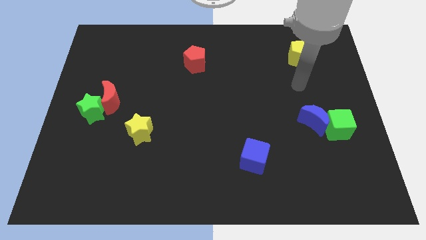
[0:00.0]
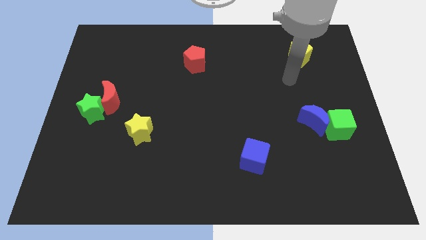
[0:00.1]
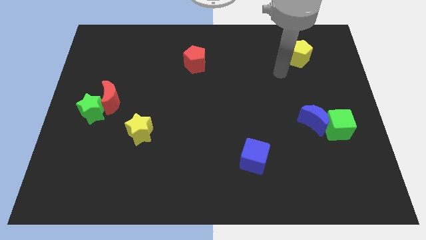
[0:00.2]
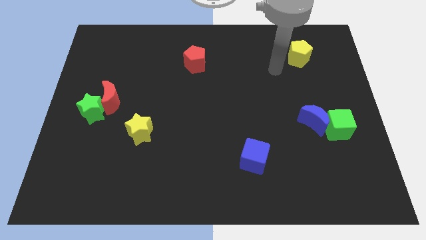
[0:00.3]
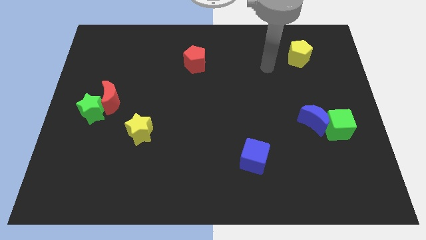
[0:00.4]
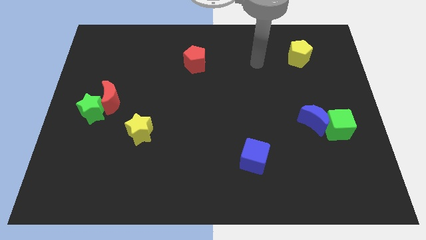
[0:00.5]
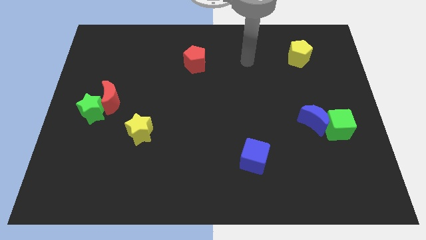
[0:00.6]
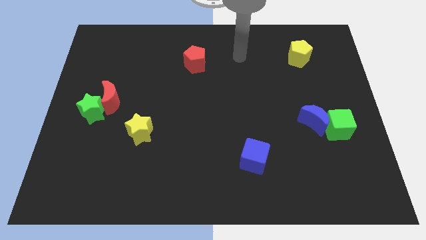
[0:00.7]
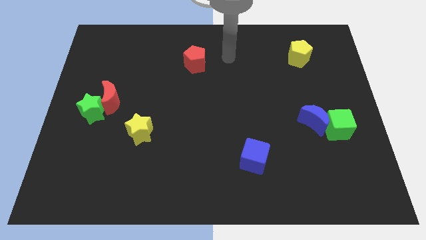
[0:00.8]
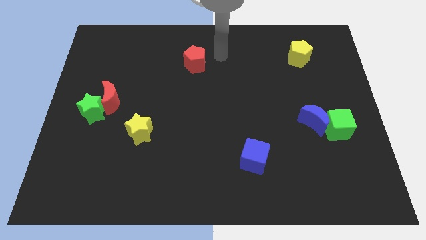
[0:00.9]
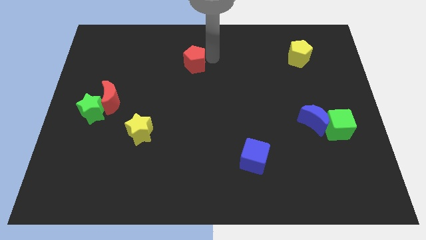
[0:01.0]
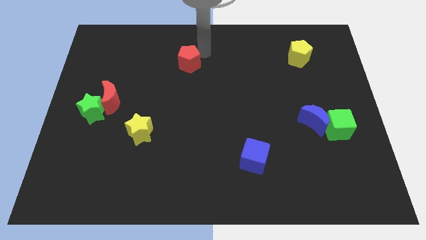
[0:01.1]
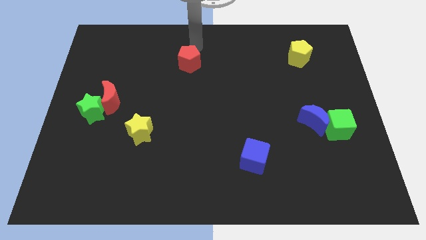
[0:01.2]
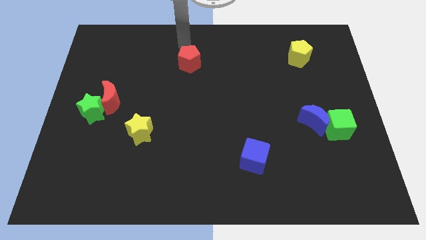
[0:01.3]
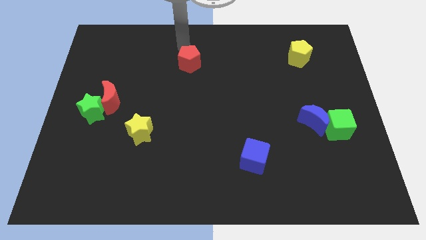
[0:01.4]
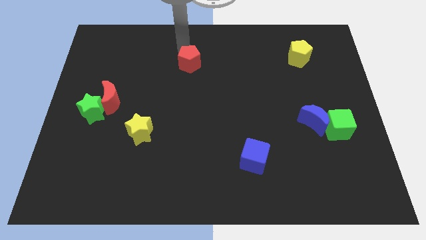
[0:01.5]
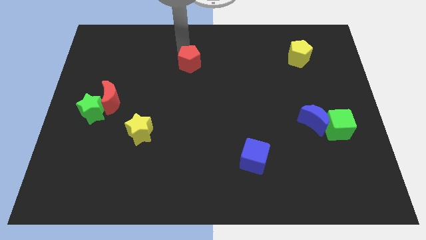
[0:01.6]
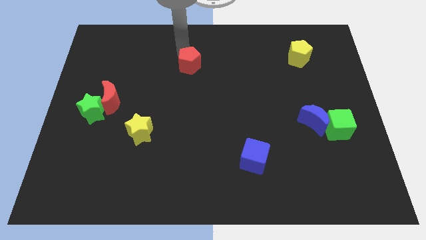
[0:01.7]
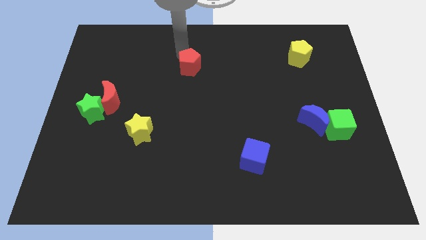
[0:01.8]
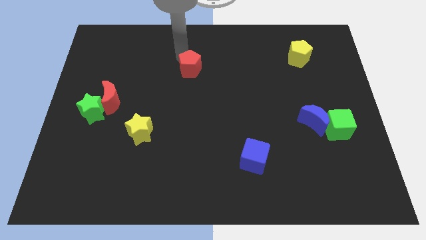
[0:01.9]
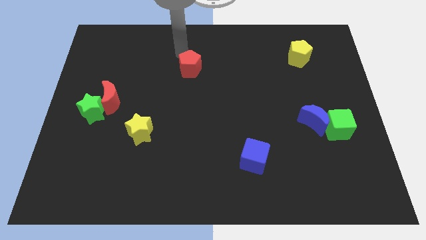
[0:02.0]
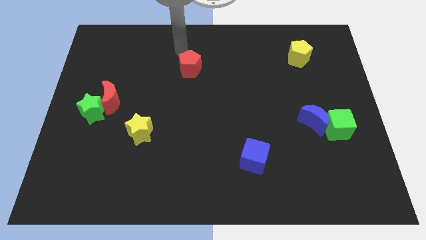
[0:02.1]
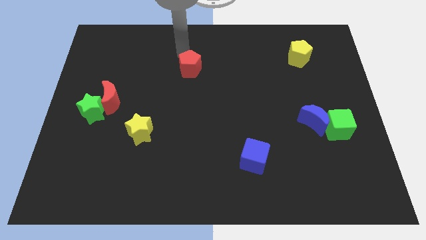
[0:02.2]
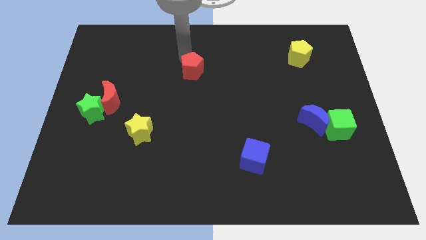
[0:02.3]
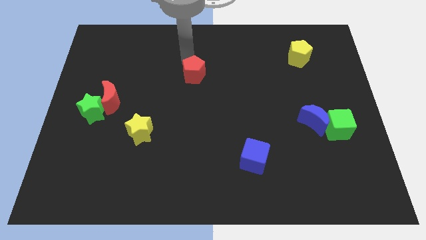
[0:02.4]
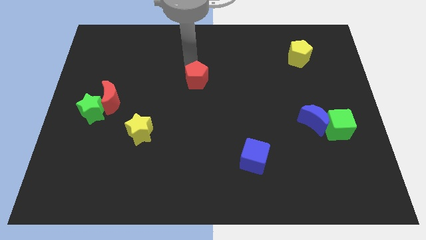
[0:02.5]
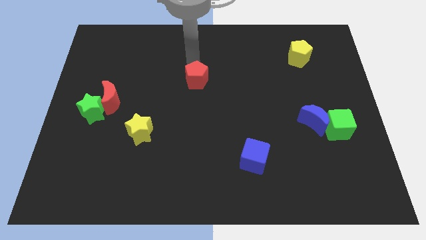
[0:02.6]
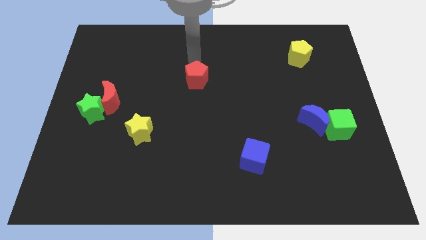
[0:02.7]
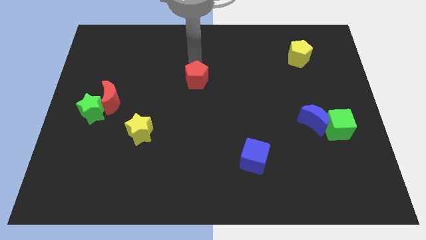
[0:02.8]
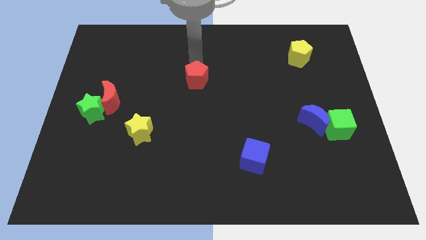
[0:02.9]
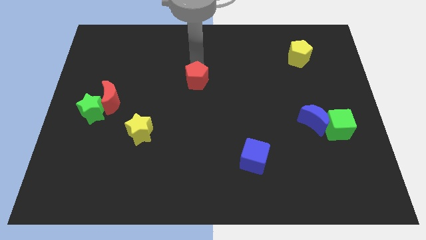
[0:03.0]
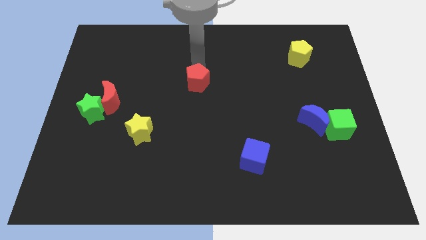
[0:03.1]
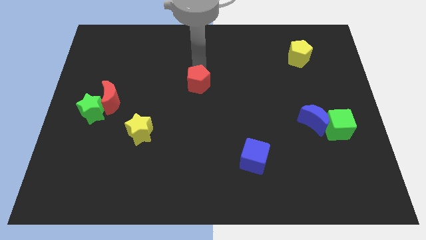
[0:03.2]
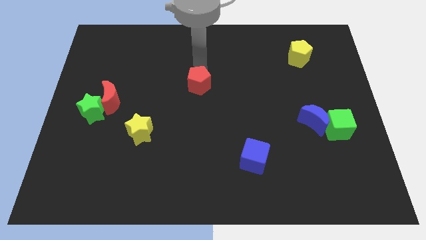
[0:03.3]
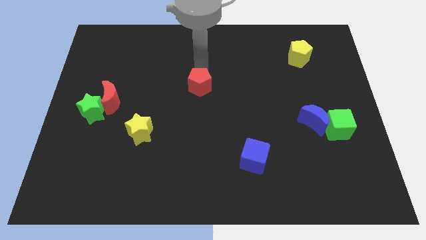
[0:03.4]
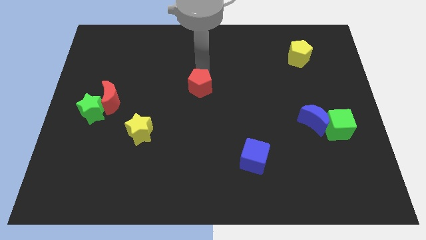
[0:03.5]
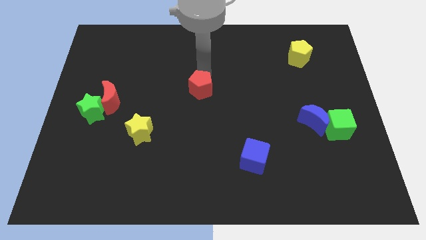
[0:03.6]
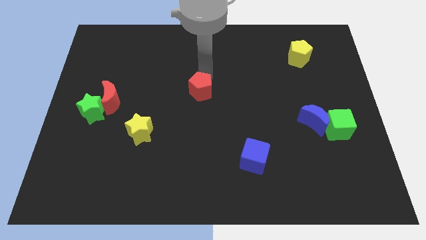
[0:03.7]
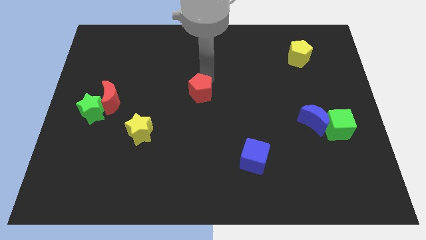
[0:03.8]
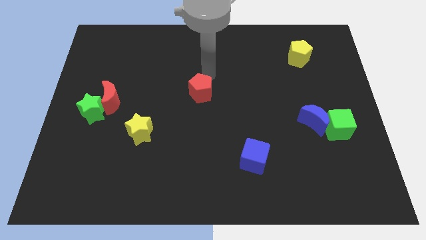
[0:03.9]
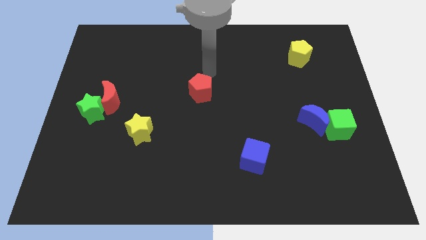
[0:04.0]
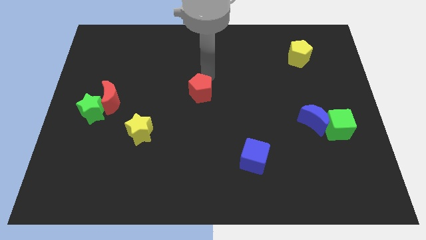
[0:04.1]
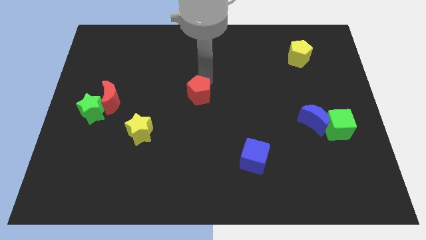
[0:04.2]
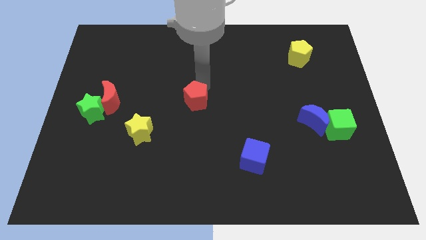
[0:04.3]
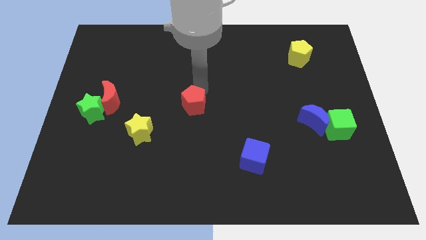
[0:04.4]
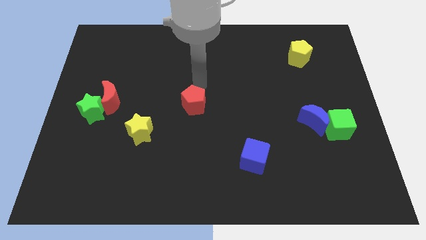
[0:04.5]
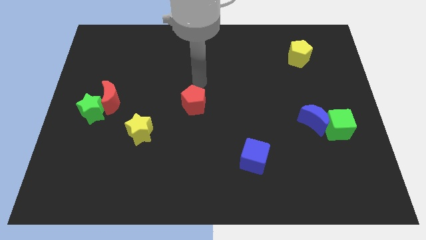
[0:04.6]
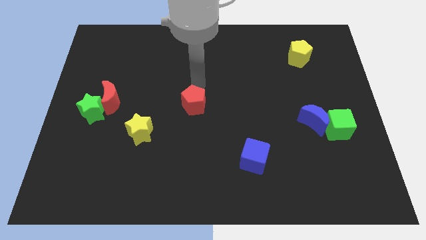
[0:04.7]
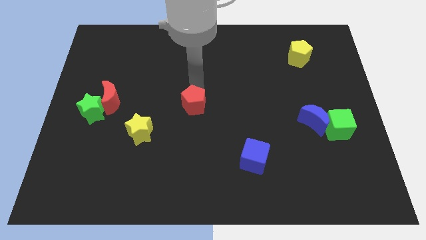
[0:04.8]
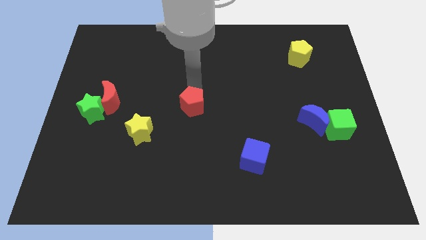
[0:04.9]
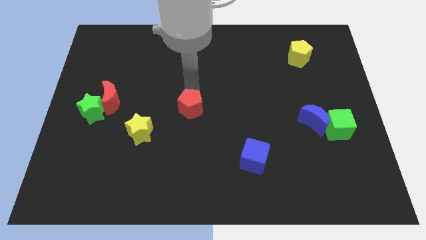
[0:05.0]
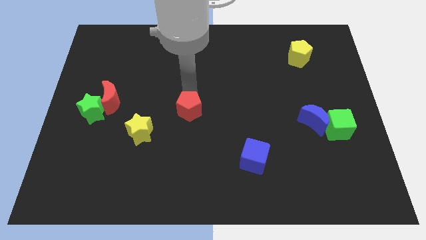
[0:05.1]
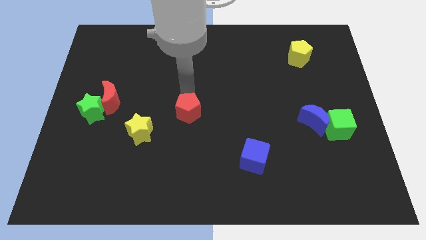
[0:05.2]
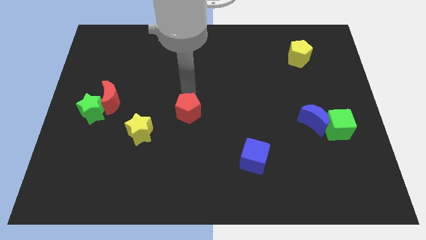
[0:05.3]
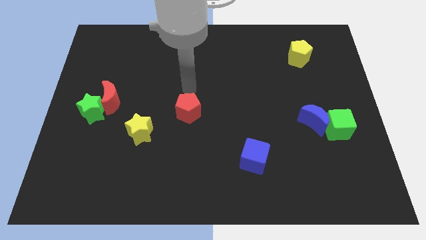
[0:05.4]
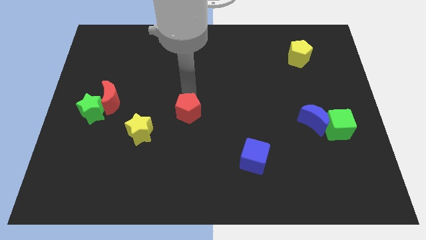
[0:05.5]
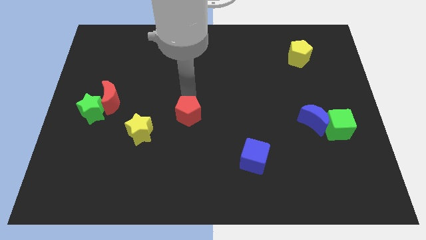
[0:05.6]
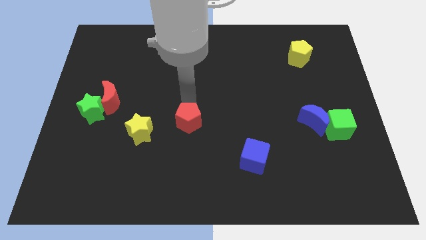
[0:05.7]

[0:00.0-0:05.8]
move the red pentagon just right of the yellow star

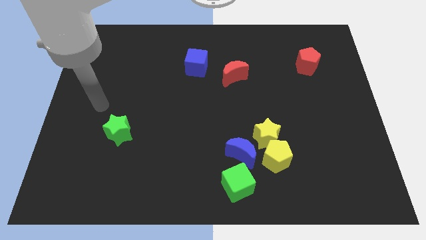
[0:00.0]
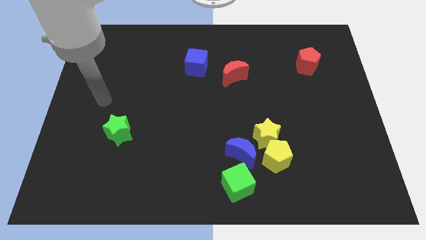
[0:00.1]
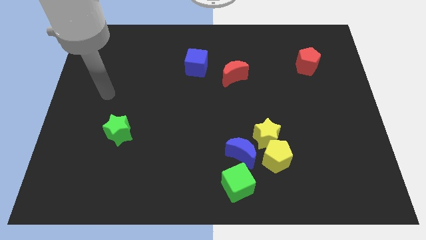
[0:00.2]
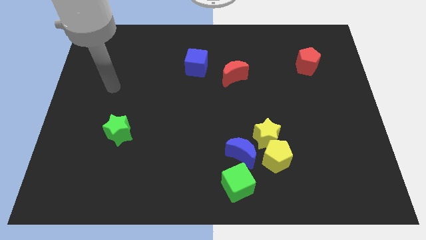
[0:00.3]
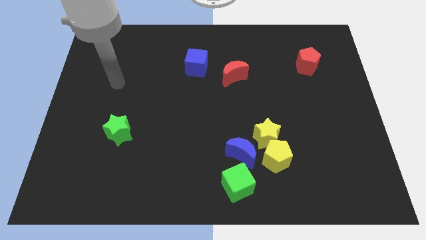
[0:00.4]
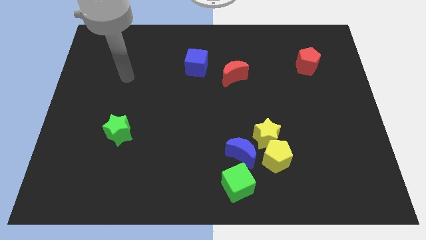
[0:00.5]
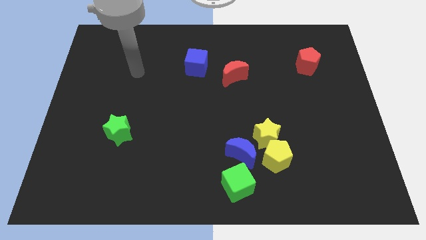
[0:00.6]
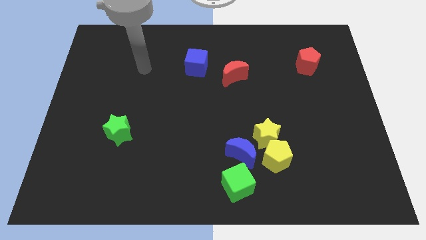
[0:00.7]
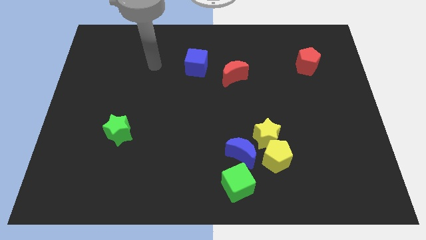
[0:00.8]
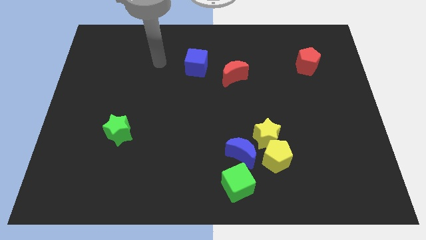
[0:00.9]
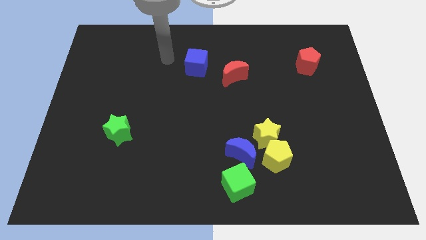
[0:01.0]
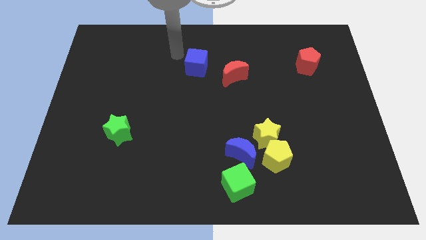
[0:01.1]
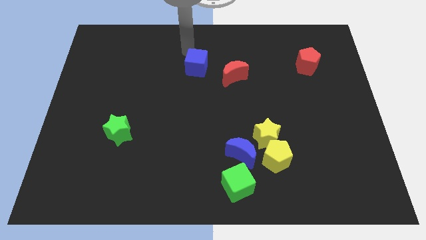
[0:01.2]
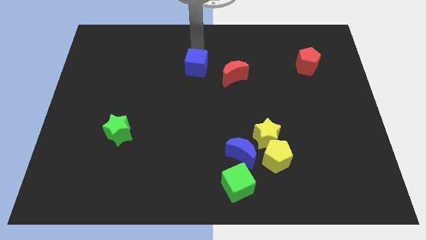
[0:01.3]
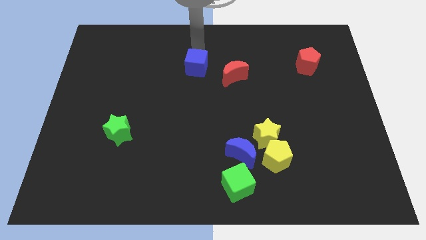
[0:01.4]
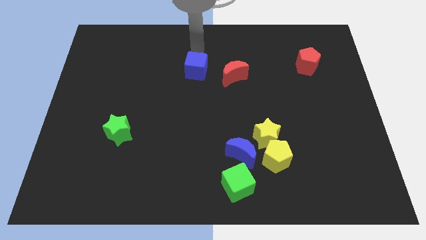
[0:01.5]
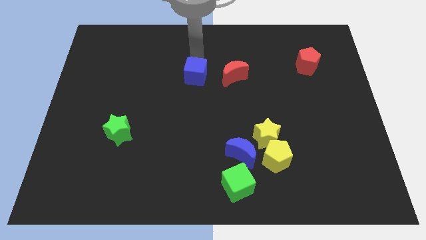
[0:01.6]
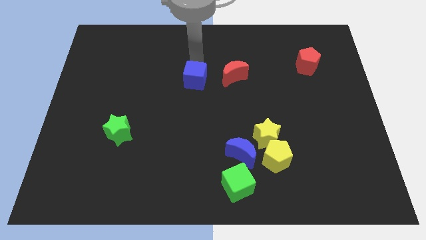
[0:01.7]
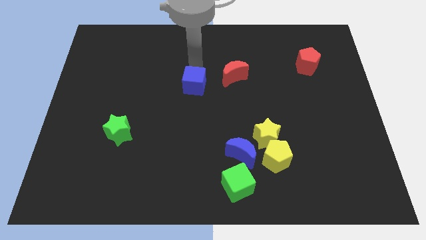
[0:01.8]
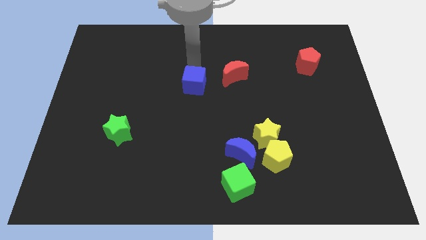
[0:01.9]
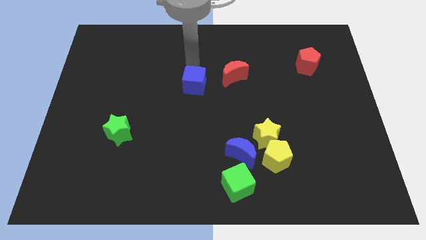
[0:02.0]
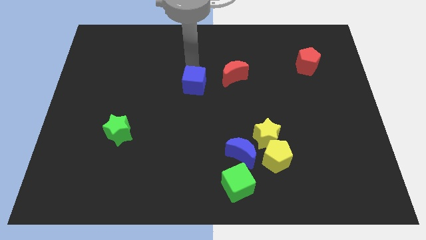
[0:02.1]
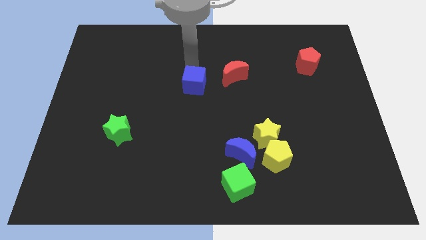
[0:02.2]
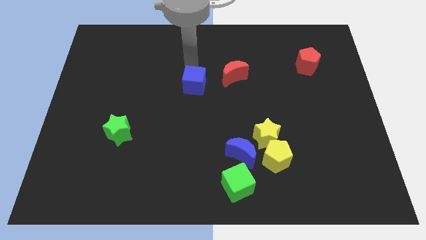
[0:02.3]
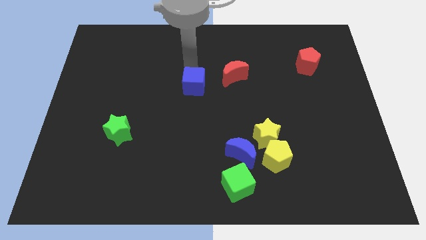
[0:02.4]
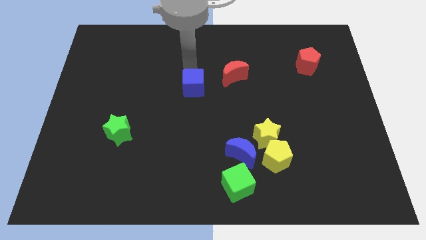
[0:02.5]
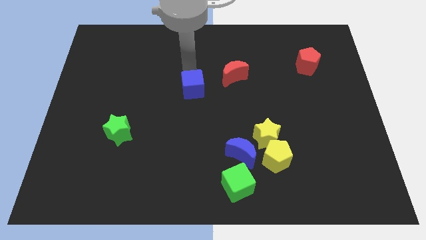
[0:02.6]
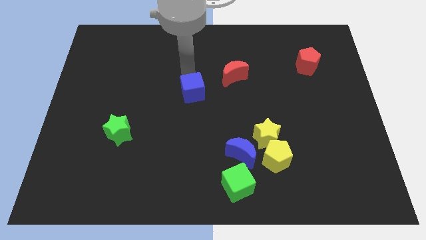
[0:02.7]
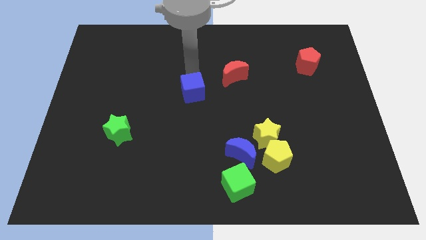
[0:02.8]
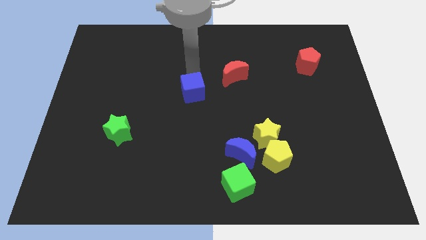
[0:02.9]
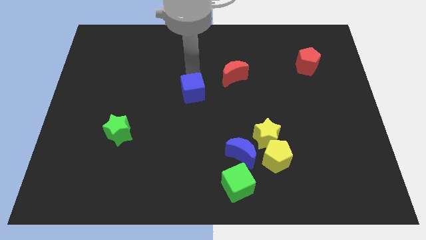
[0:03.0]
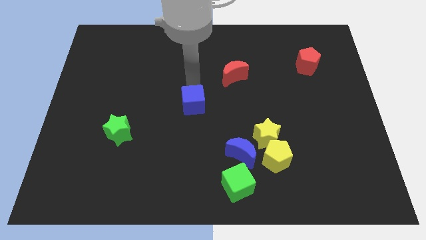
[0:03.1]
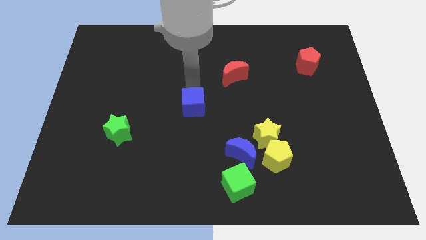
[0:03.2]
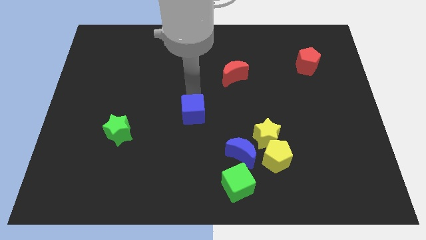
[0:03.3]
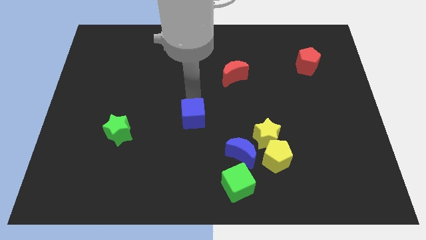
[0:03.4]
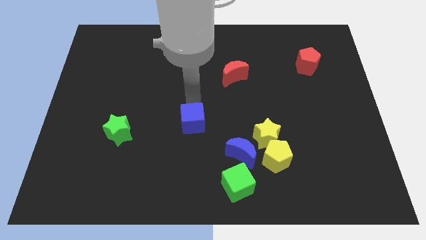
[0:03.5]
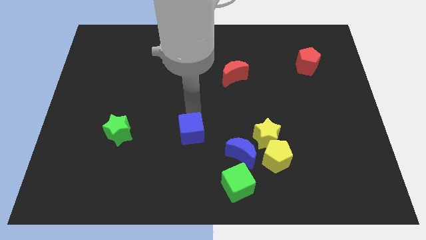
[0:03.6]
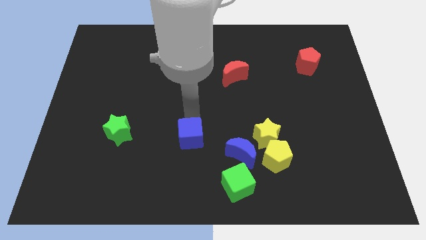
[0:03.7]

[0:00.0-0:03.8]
push the blue cube to the left side of the blue moon
